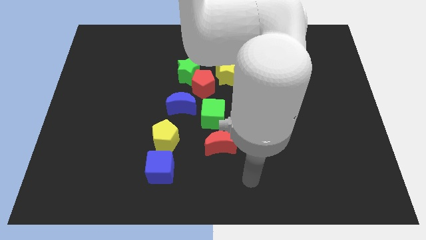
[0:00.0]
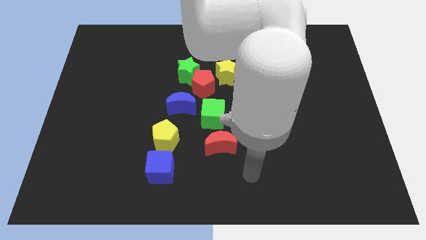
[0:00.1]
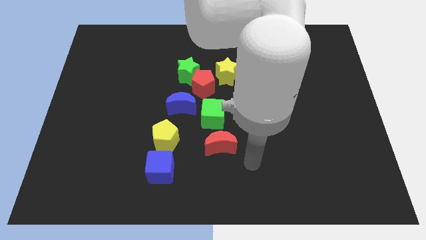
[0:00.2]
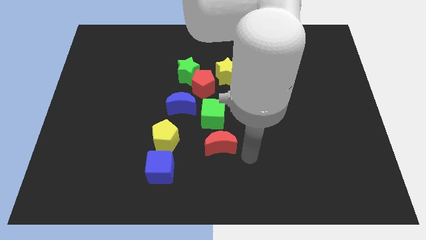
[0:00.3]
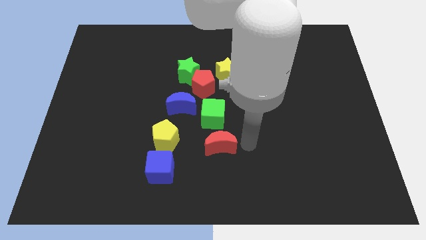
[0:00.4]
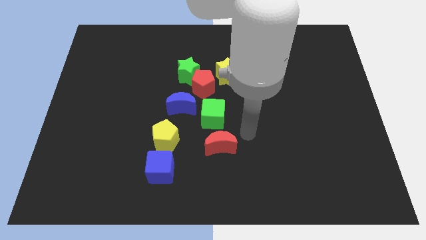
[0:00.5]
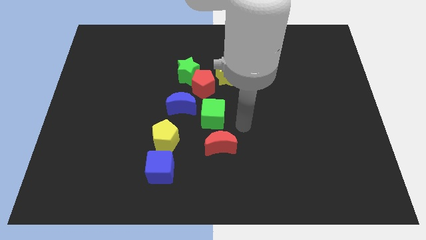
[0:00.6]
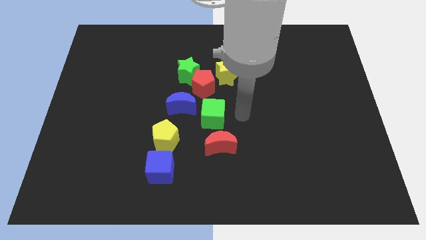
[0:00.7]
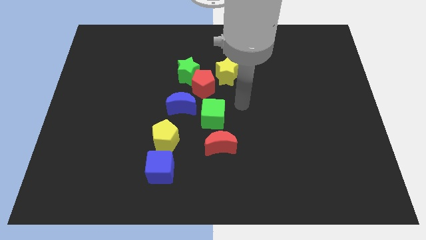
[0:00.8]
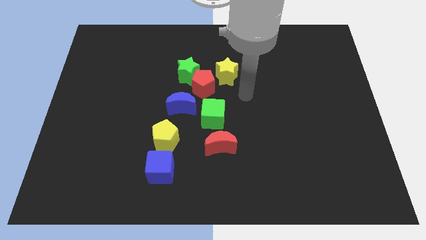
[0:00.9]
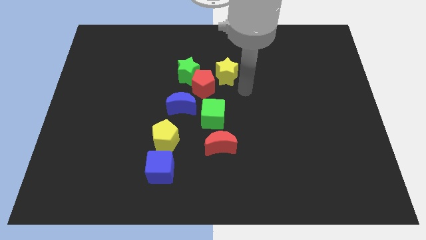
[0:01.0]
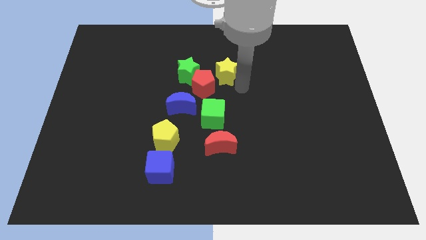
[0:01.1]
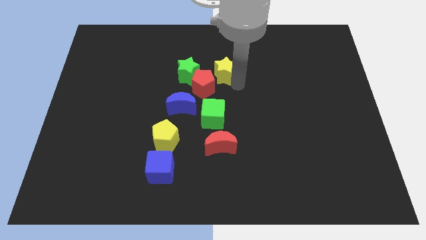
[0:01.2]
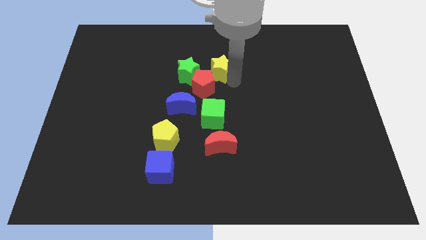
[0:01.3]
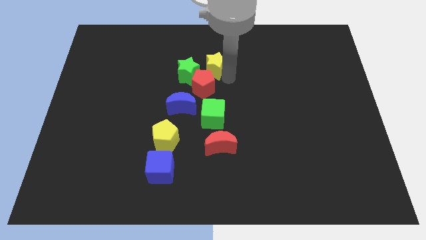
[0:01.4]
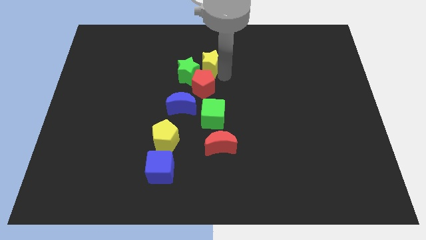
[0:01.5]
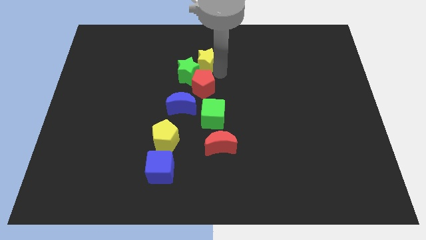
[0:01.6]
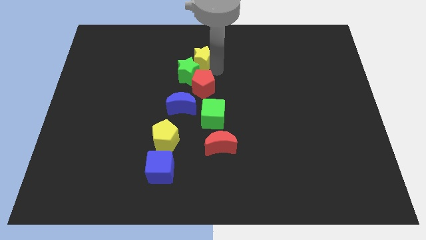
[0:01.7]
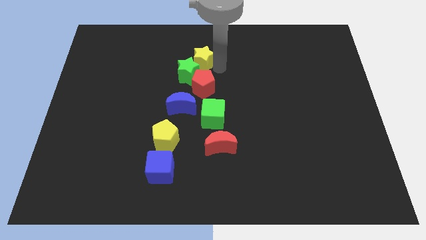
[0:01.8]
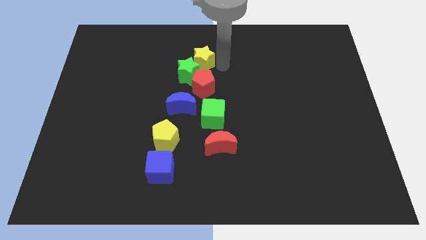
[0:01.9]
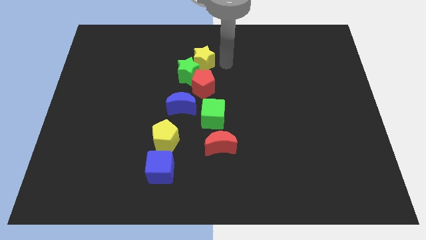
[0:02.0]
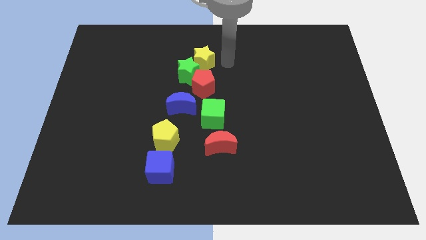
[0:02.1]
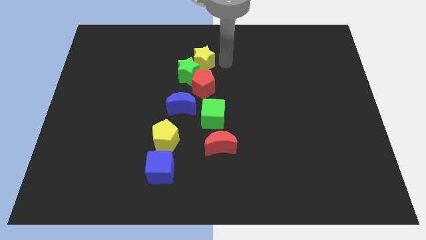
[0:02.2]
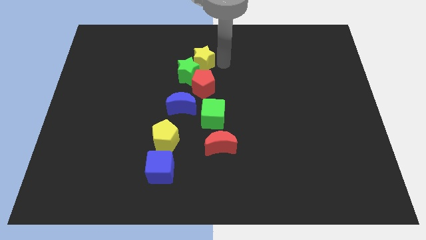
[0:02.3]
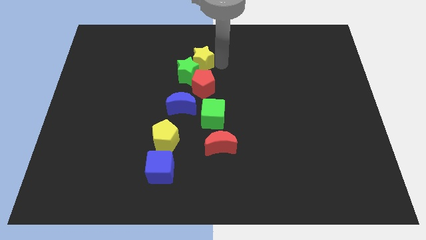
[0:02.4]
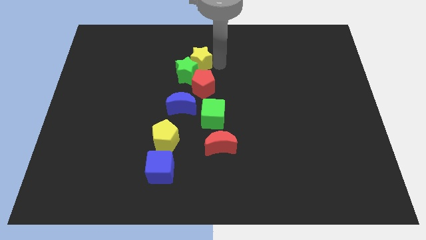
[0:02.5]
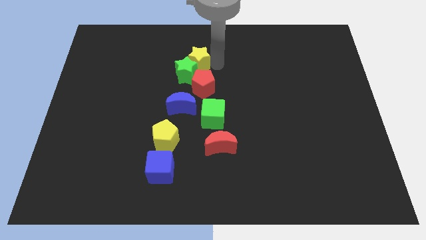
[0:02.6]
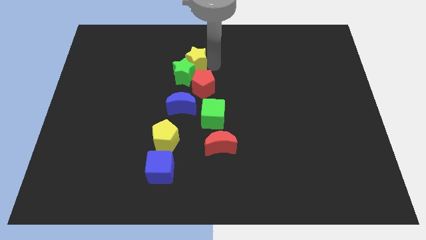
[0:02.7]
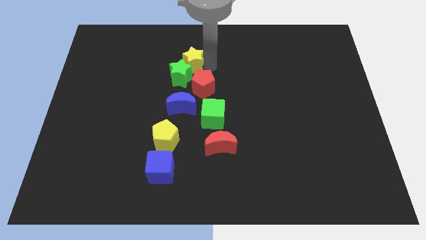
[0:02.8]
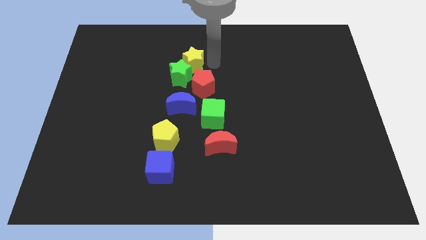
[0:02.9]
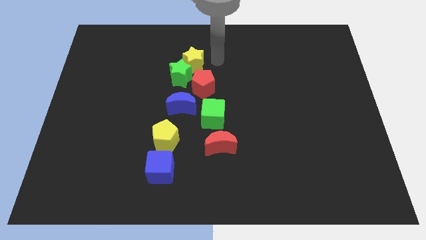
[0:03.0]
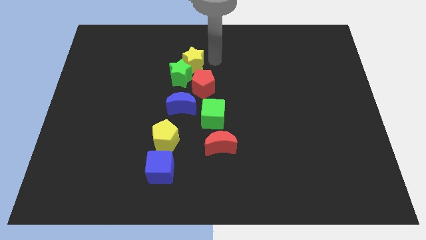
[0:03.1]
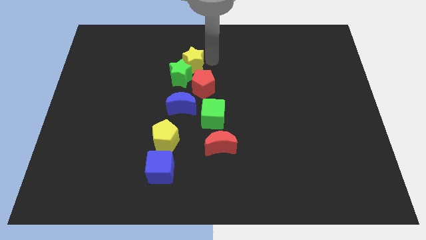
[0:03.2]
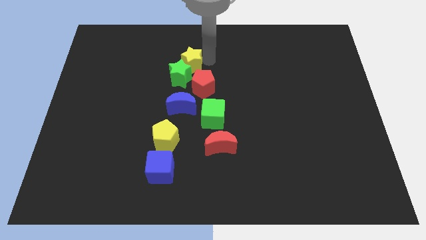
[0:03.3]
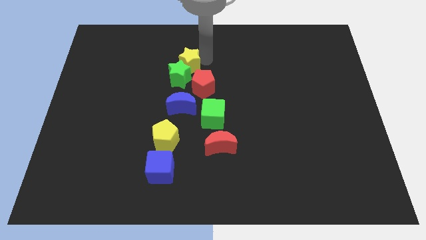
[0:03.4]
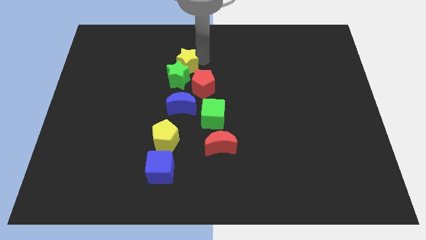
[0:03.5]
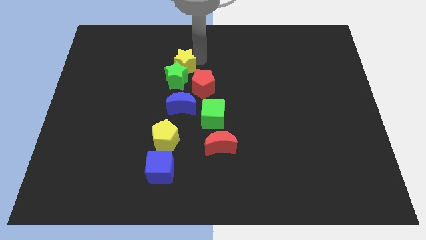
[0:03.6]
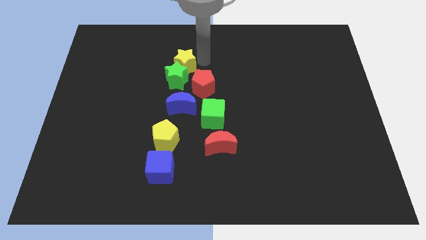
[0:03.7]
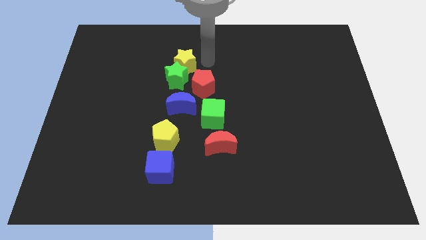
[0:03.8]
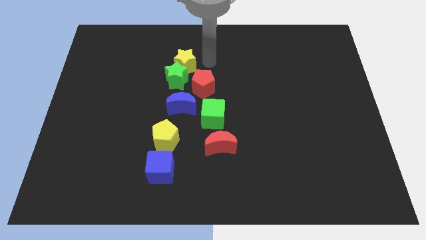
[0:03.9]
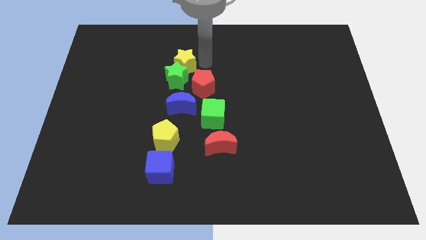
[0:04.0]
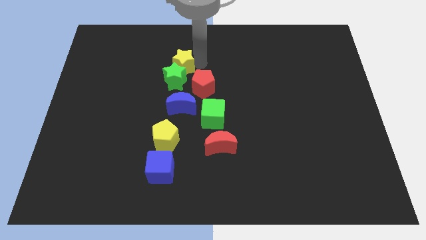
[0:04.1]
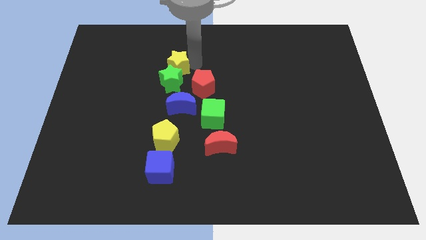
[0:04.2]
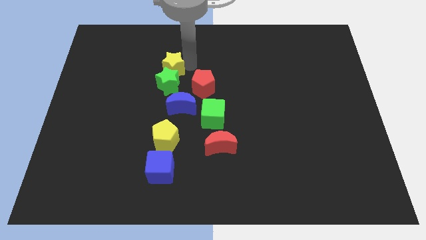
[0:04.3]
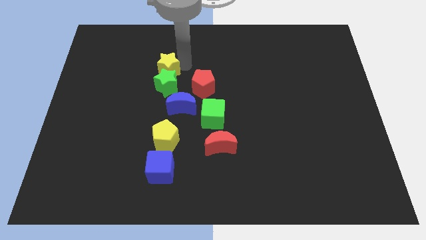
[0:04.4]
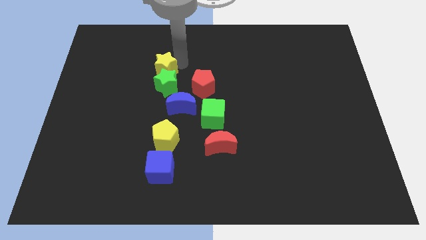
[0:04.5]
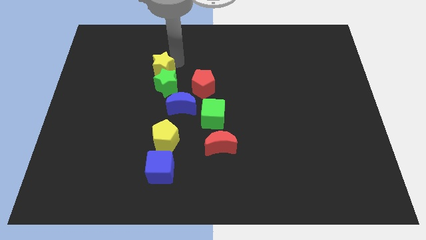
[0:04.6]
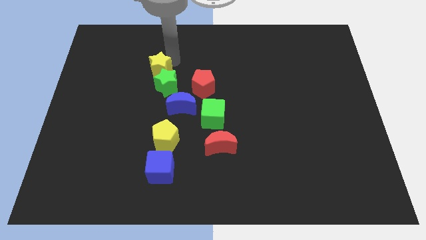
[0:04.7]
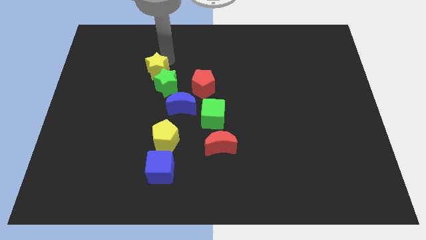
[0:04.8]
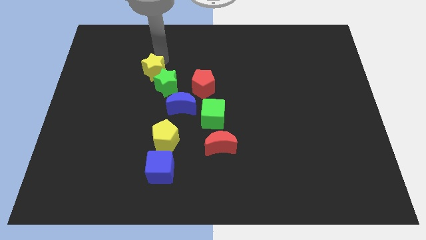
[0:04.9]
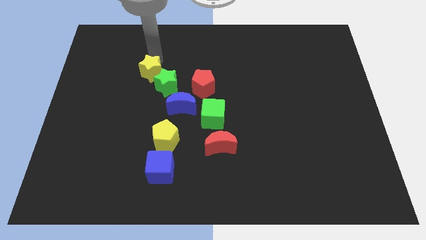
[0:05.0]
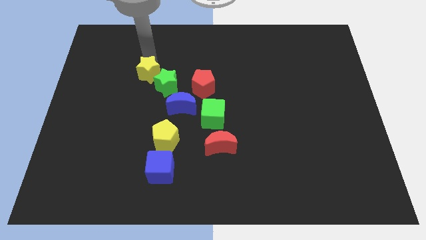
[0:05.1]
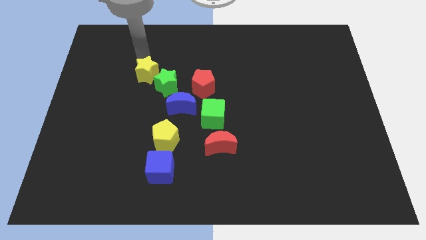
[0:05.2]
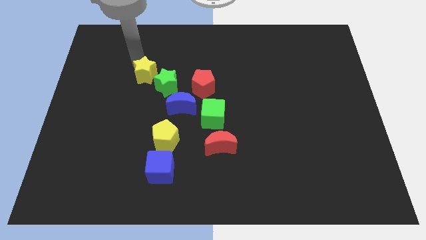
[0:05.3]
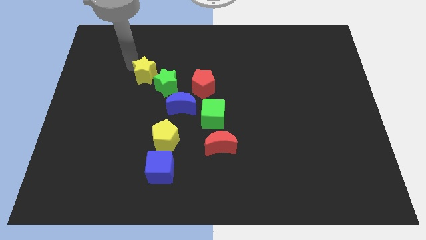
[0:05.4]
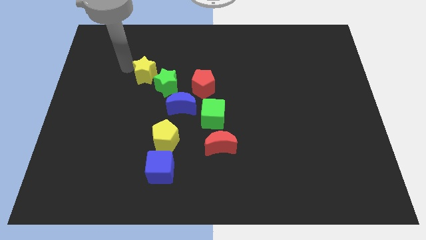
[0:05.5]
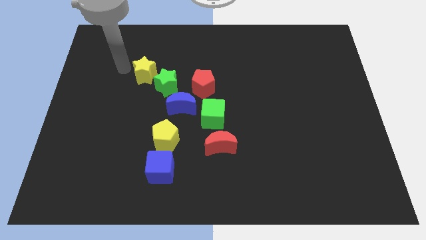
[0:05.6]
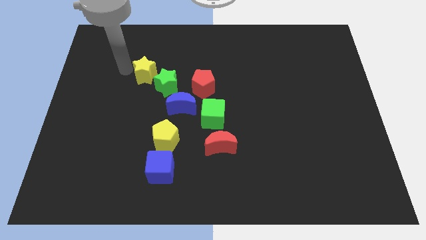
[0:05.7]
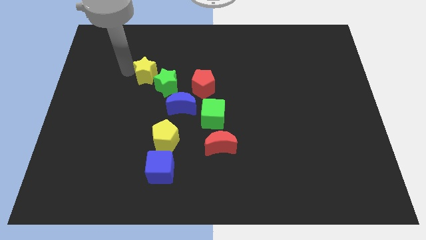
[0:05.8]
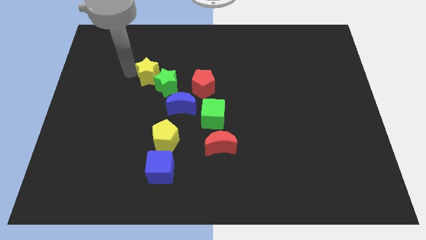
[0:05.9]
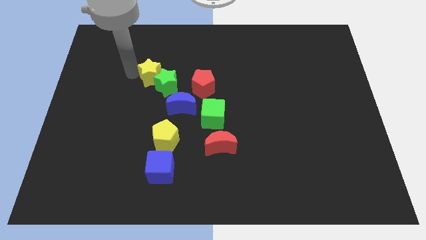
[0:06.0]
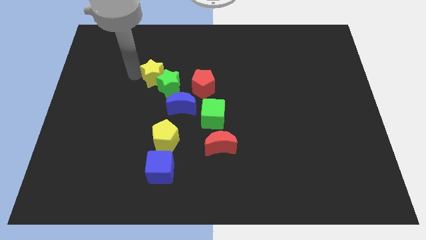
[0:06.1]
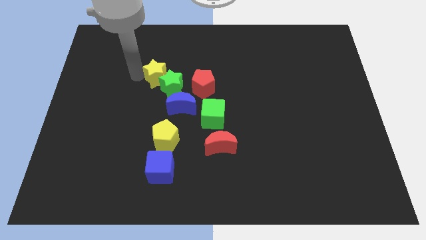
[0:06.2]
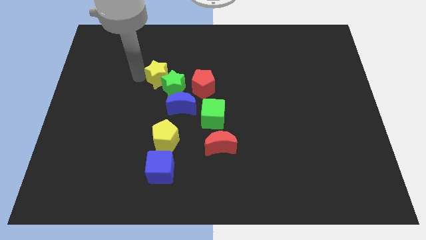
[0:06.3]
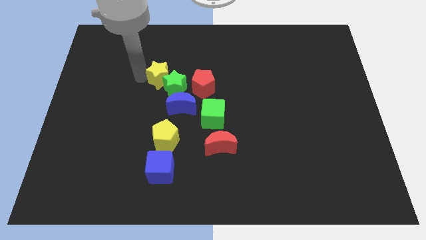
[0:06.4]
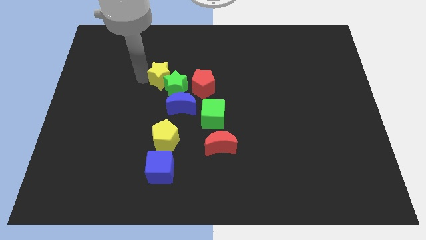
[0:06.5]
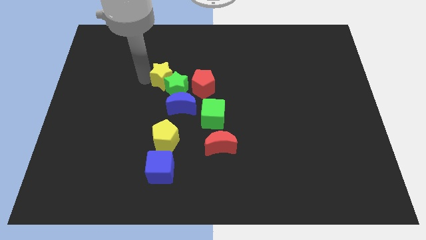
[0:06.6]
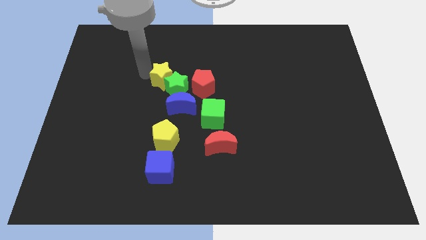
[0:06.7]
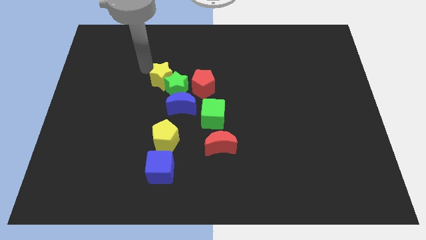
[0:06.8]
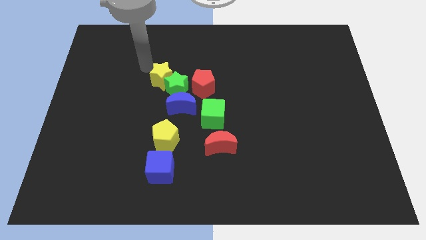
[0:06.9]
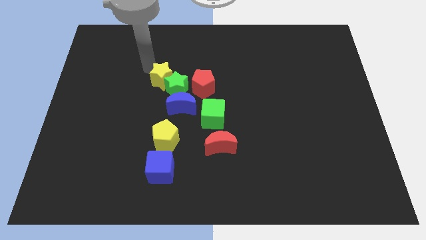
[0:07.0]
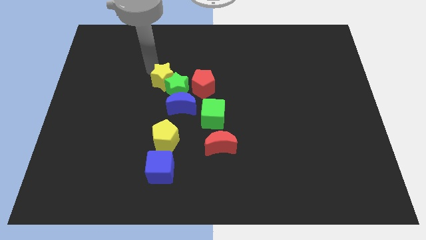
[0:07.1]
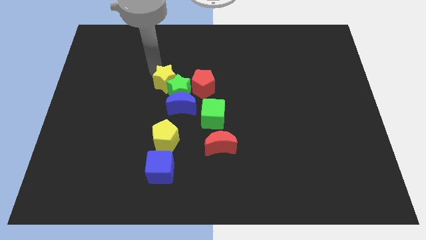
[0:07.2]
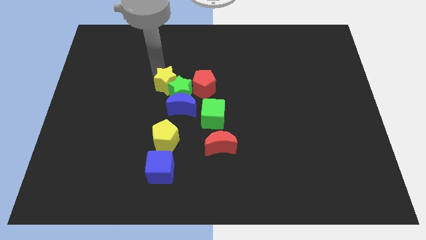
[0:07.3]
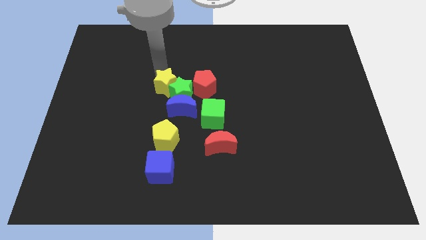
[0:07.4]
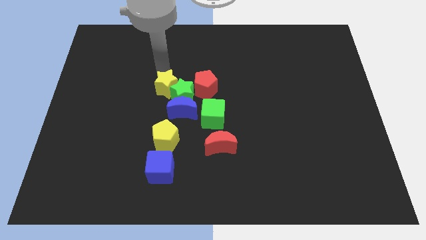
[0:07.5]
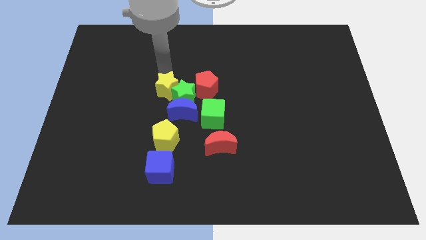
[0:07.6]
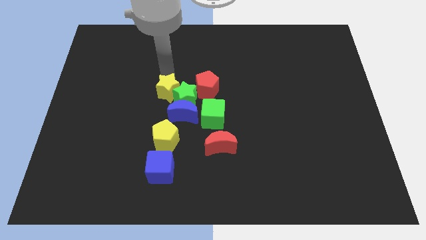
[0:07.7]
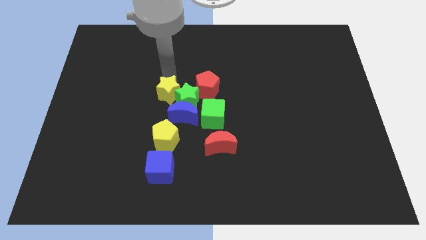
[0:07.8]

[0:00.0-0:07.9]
push the yellow star to the top left side of the green cube
